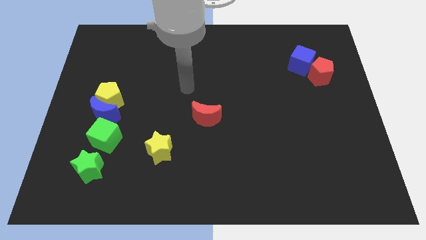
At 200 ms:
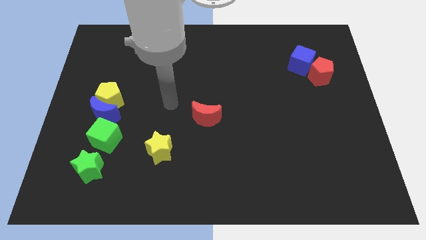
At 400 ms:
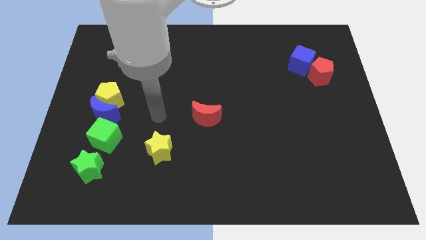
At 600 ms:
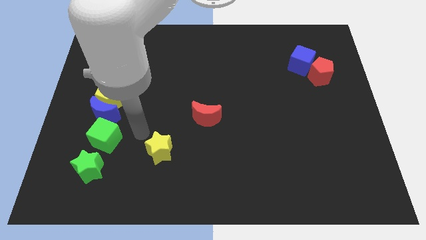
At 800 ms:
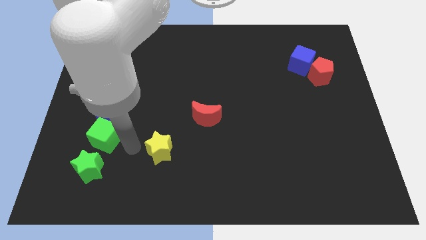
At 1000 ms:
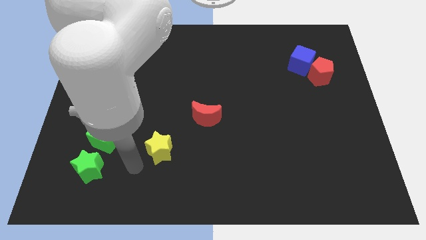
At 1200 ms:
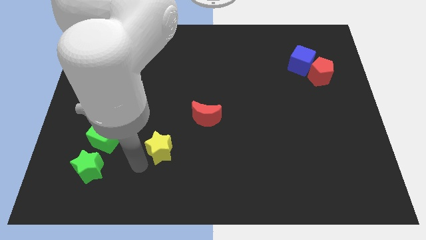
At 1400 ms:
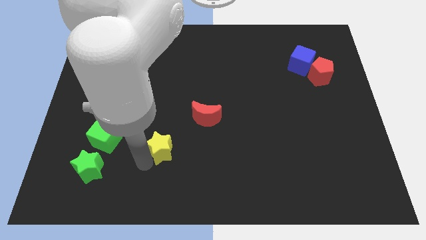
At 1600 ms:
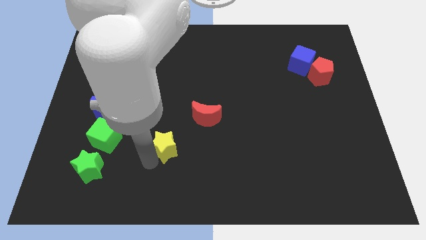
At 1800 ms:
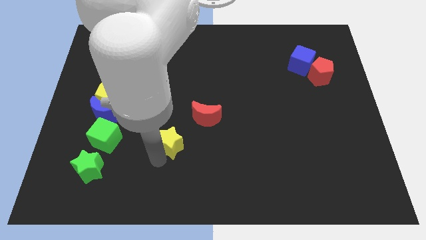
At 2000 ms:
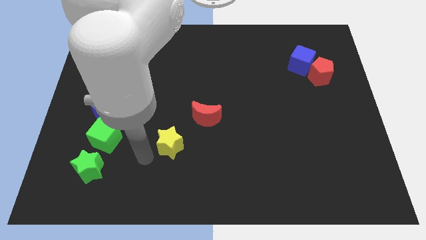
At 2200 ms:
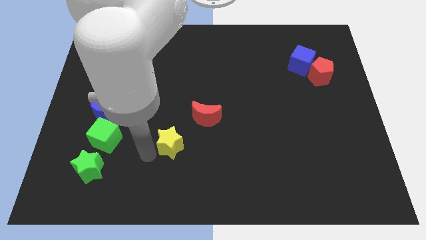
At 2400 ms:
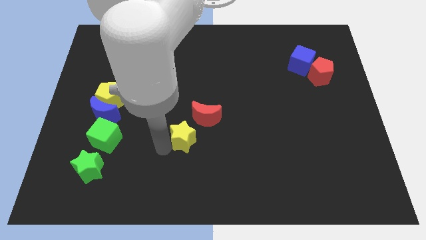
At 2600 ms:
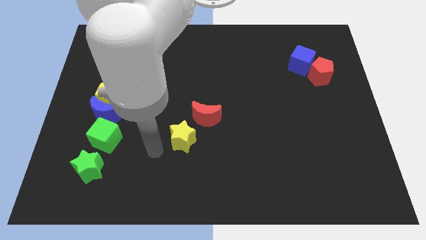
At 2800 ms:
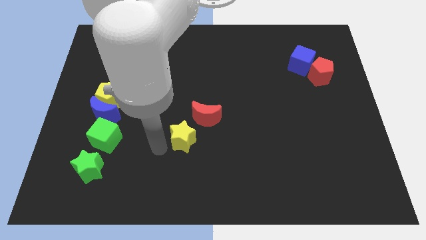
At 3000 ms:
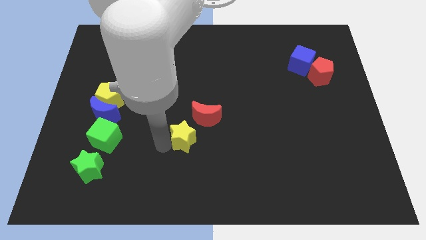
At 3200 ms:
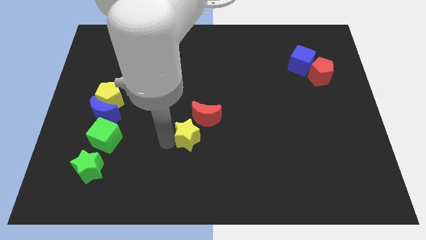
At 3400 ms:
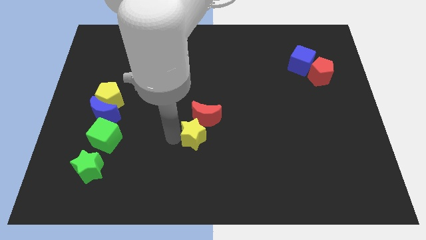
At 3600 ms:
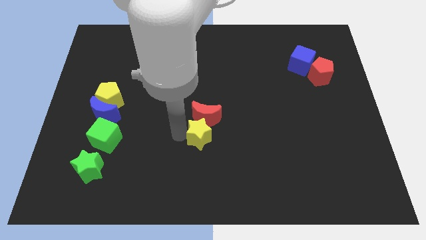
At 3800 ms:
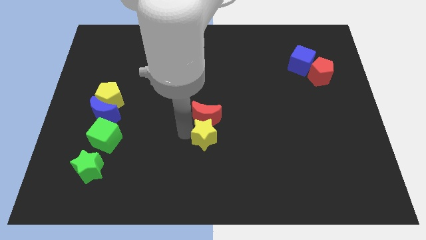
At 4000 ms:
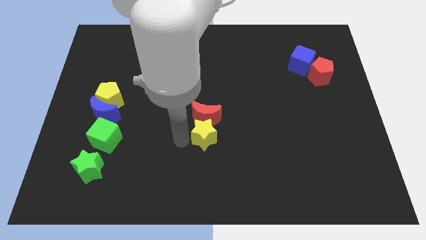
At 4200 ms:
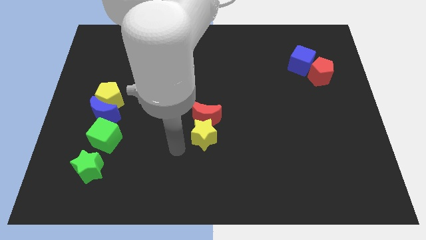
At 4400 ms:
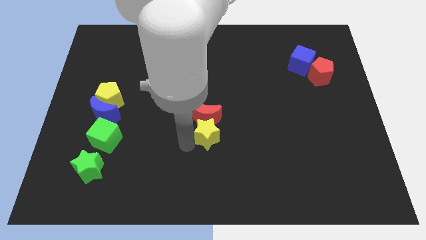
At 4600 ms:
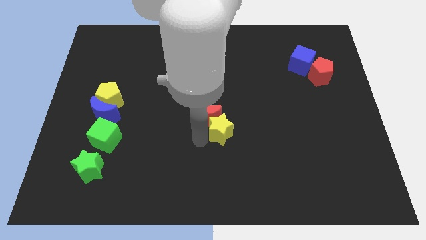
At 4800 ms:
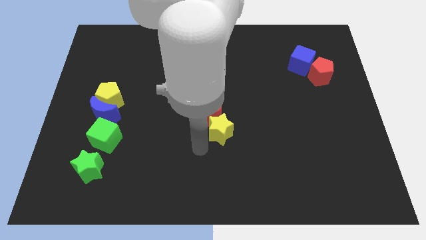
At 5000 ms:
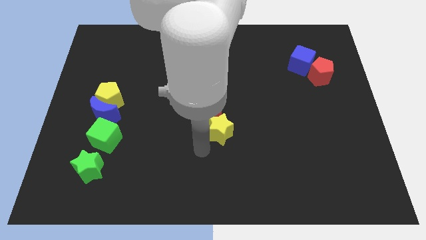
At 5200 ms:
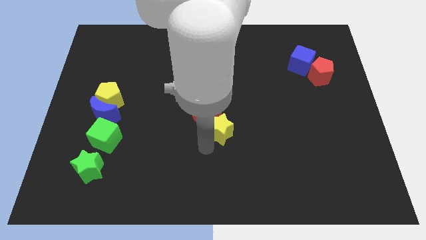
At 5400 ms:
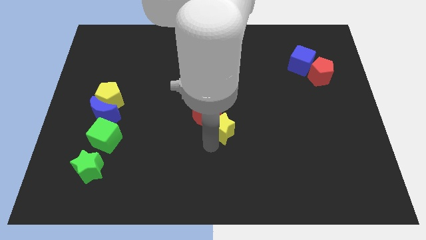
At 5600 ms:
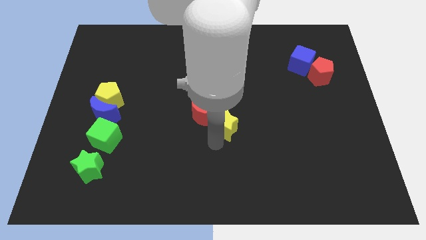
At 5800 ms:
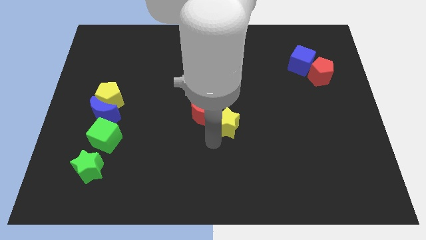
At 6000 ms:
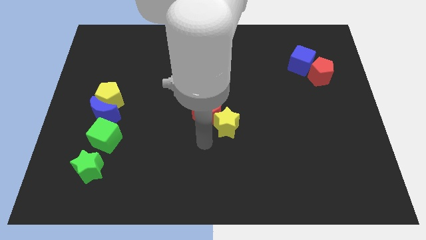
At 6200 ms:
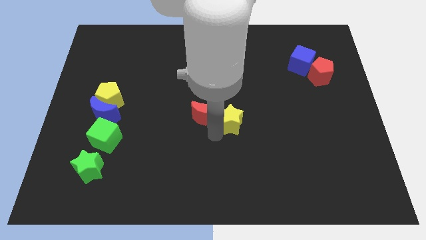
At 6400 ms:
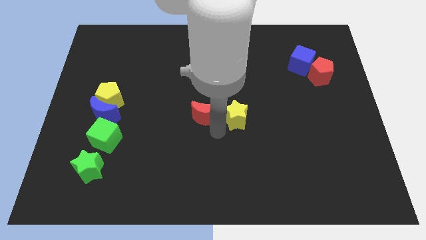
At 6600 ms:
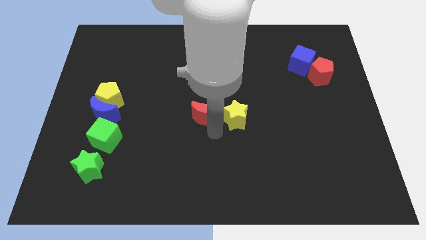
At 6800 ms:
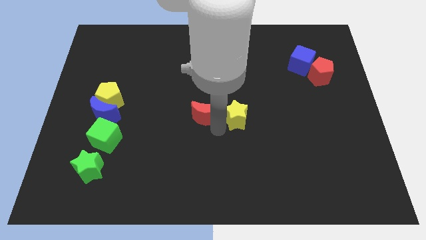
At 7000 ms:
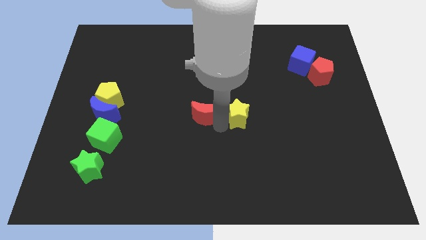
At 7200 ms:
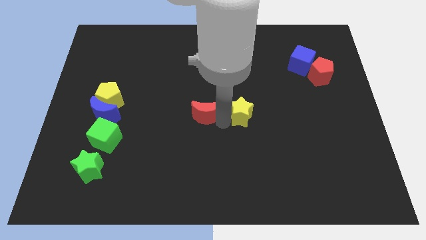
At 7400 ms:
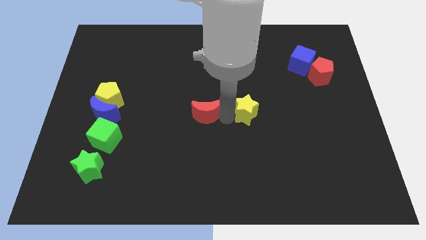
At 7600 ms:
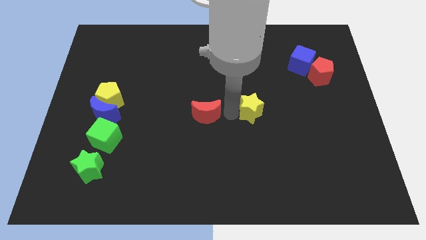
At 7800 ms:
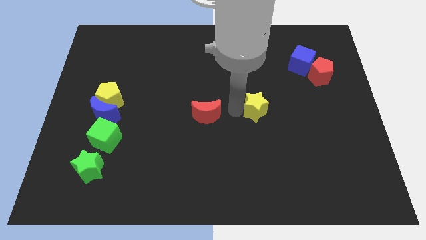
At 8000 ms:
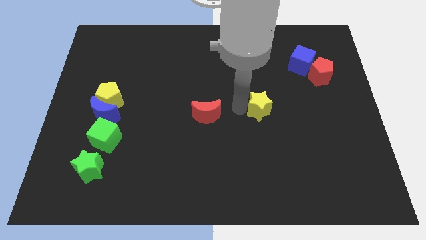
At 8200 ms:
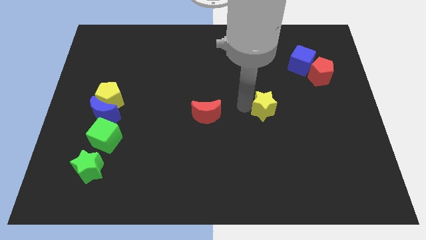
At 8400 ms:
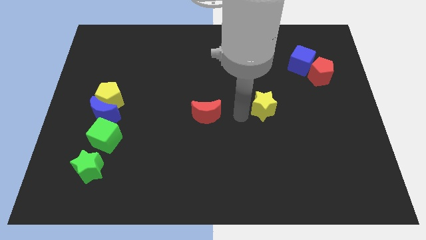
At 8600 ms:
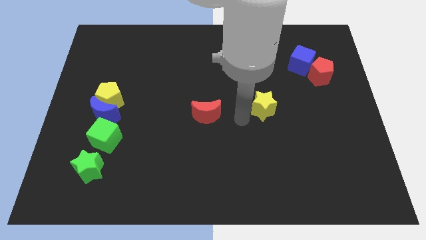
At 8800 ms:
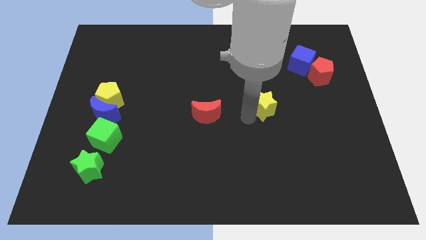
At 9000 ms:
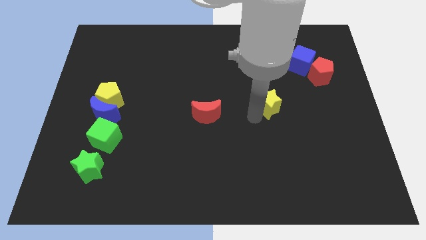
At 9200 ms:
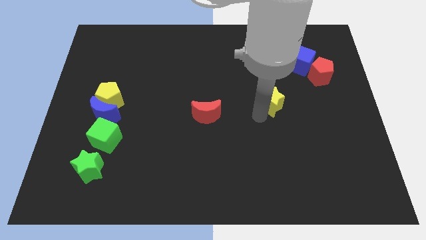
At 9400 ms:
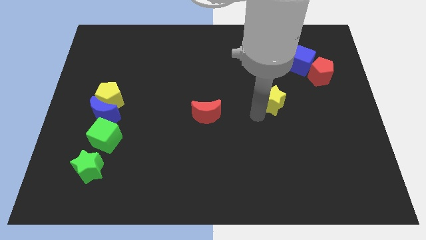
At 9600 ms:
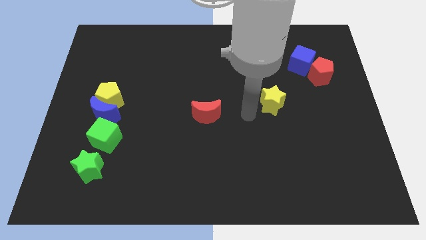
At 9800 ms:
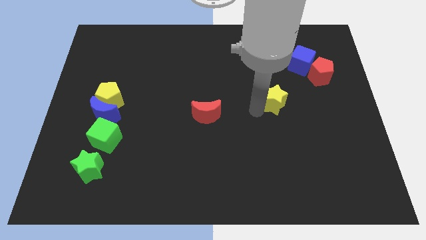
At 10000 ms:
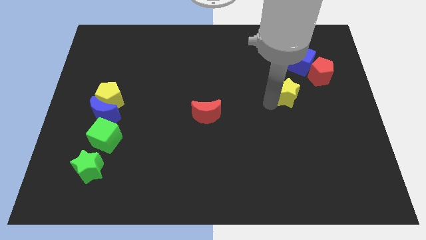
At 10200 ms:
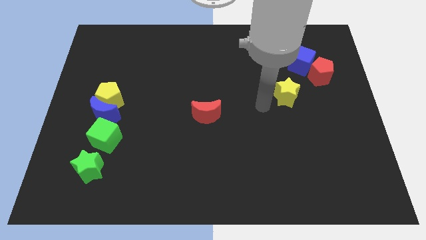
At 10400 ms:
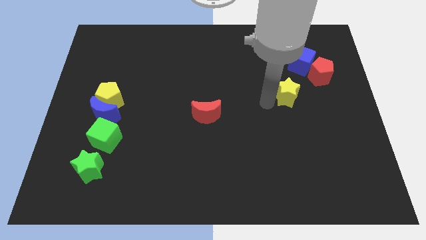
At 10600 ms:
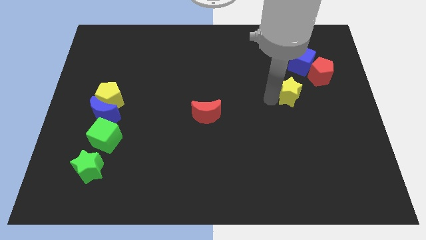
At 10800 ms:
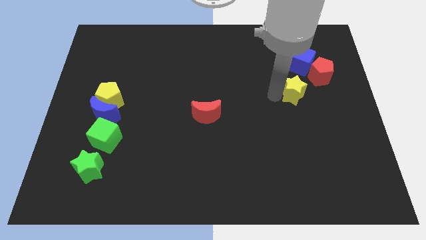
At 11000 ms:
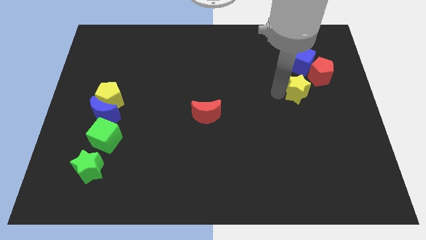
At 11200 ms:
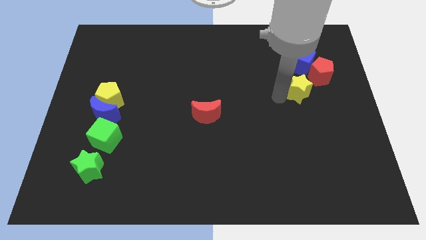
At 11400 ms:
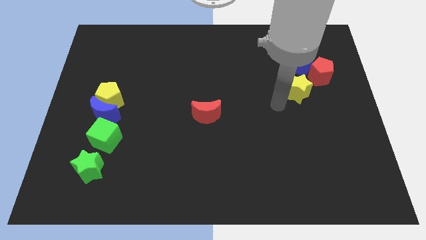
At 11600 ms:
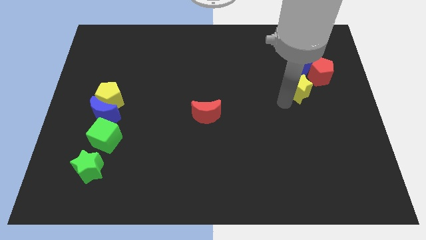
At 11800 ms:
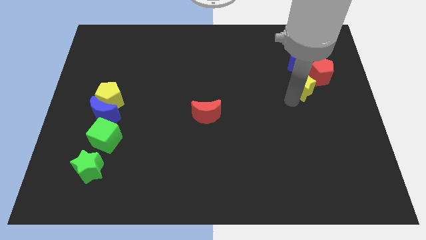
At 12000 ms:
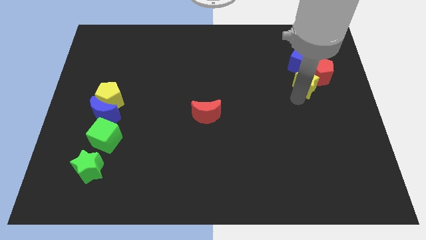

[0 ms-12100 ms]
put the yellow star towards the red pentagon

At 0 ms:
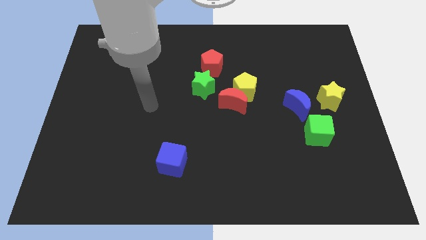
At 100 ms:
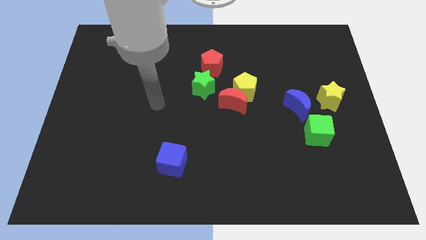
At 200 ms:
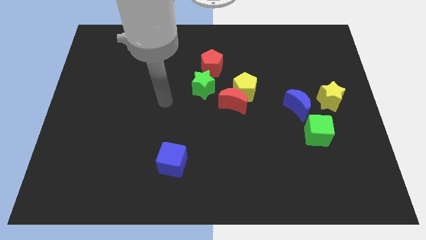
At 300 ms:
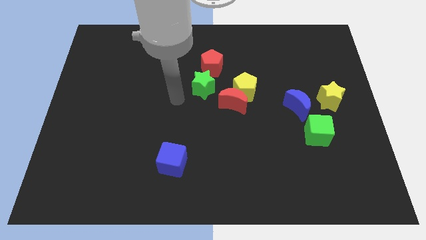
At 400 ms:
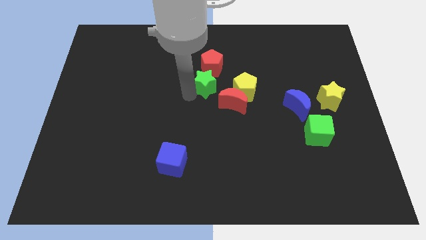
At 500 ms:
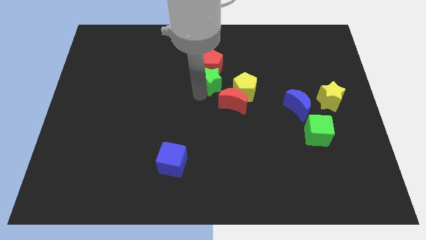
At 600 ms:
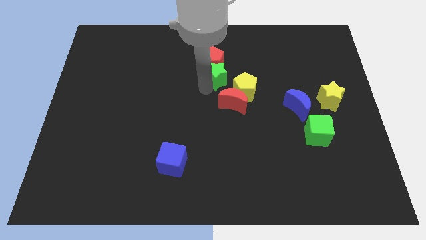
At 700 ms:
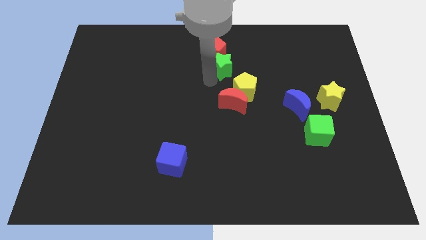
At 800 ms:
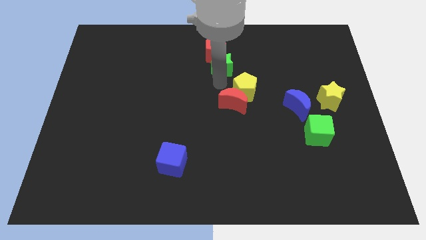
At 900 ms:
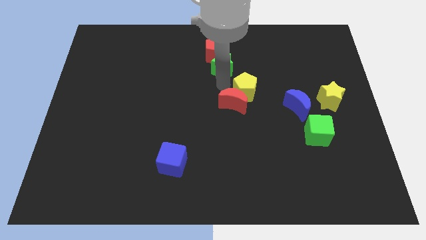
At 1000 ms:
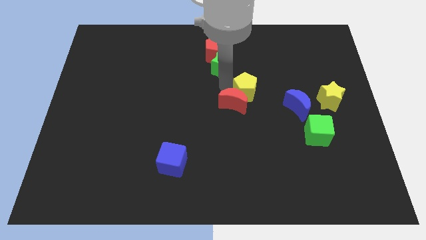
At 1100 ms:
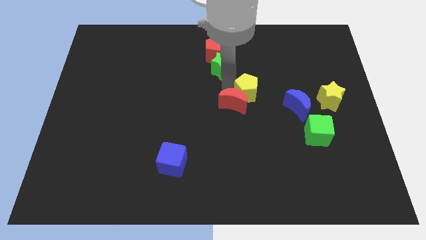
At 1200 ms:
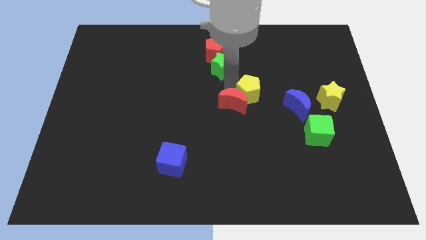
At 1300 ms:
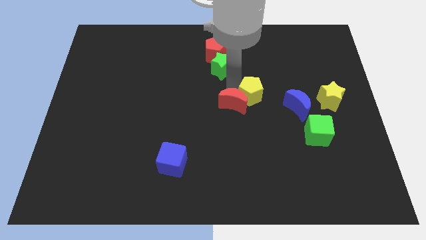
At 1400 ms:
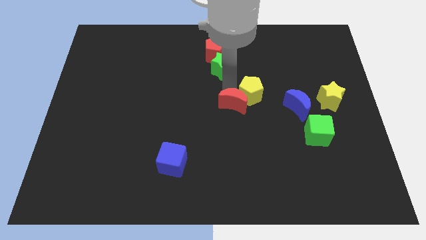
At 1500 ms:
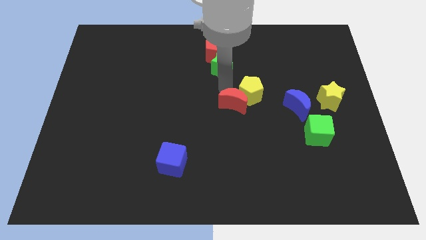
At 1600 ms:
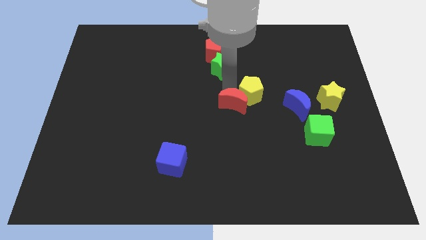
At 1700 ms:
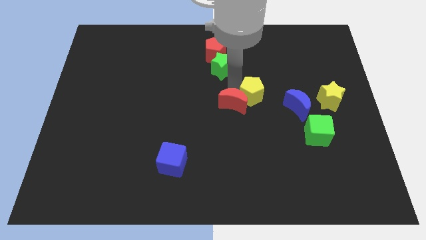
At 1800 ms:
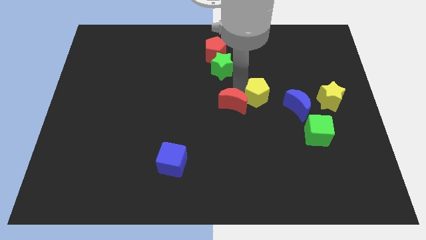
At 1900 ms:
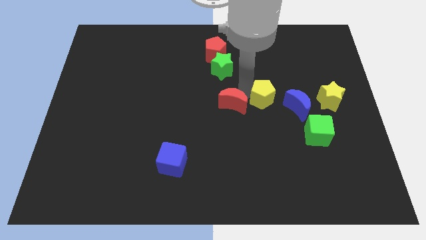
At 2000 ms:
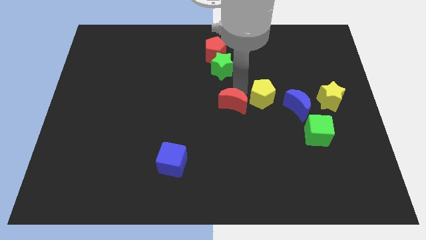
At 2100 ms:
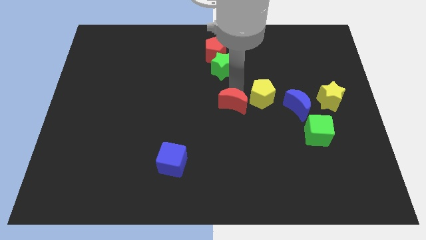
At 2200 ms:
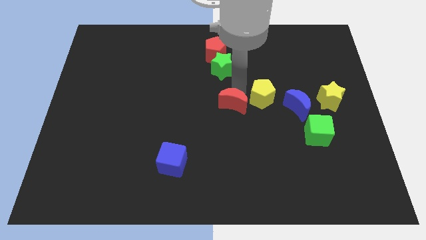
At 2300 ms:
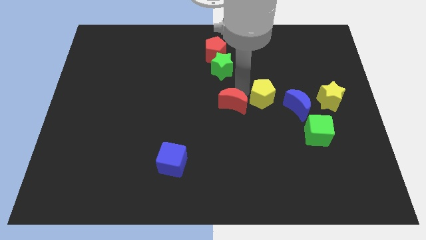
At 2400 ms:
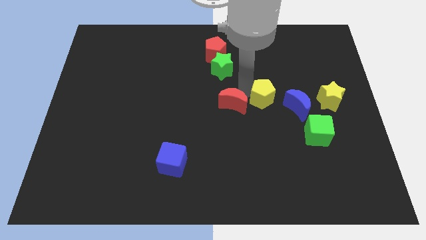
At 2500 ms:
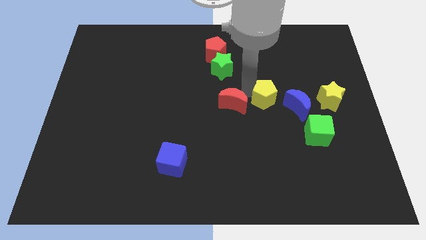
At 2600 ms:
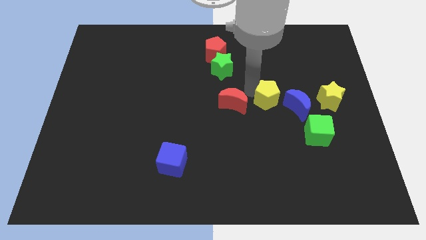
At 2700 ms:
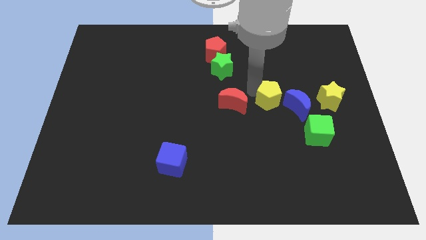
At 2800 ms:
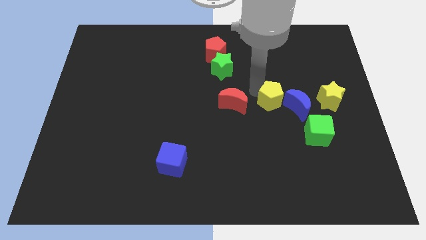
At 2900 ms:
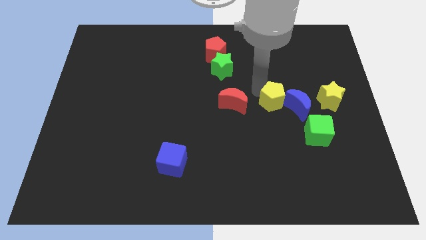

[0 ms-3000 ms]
push the yellow pentagon to the blue moon
